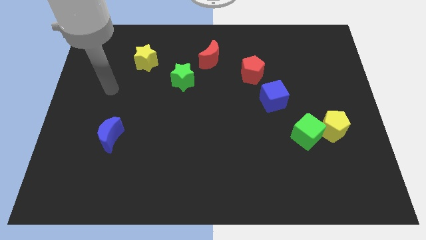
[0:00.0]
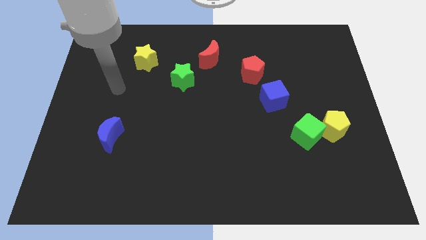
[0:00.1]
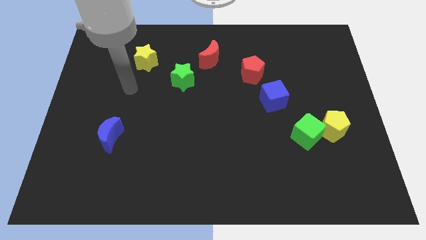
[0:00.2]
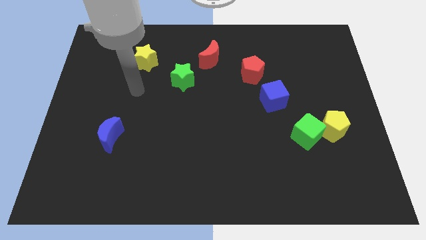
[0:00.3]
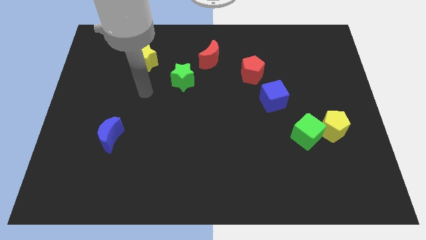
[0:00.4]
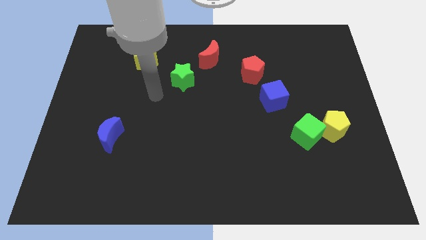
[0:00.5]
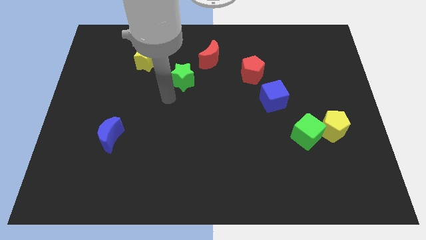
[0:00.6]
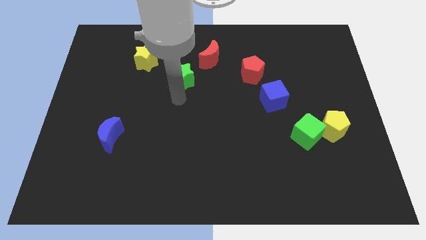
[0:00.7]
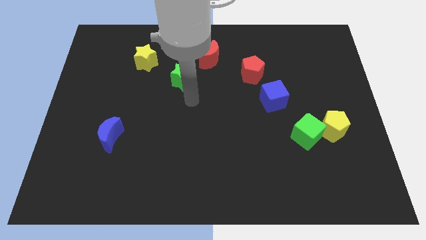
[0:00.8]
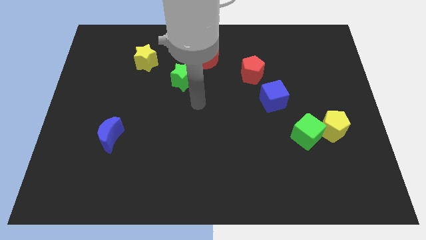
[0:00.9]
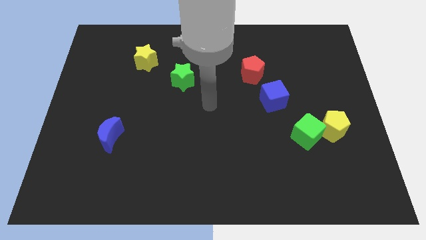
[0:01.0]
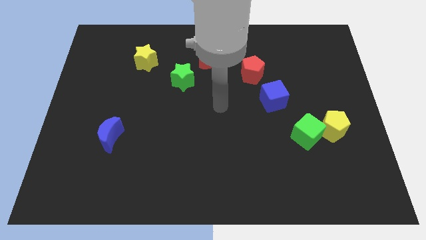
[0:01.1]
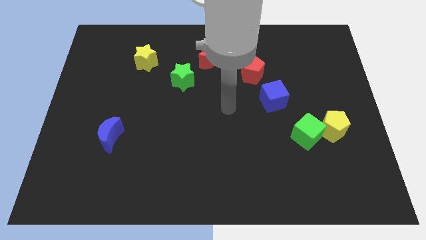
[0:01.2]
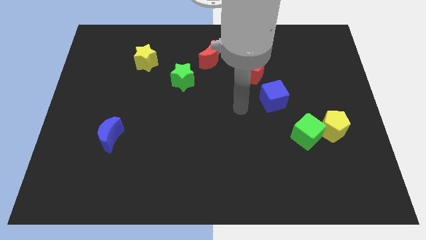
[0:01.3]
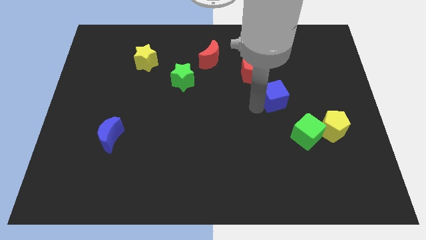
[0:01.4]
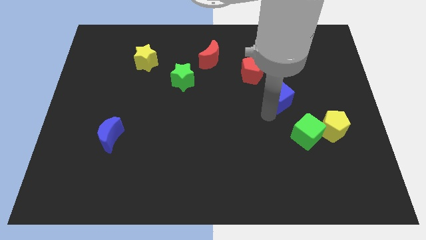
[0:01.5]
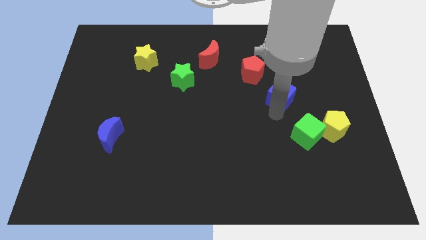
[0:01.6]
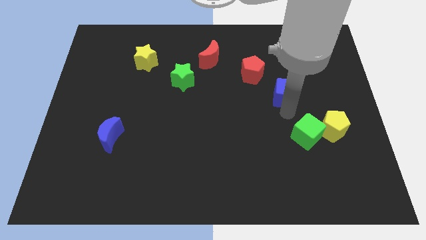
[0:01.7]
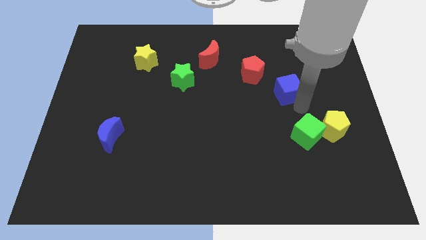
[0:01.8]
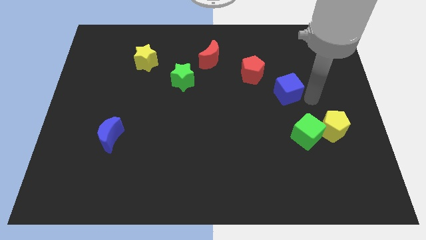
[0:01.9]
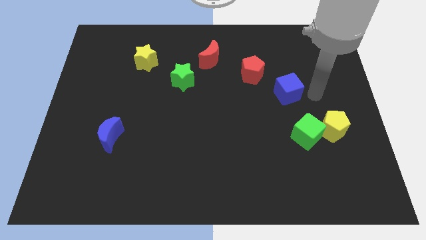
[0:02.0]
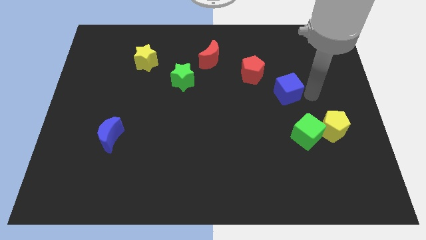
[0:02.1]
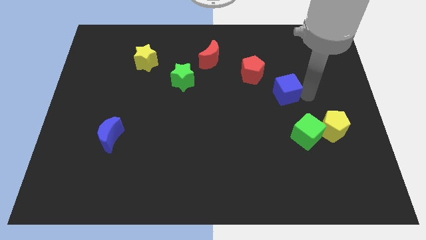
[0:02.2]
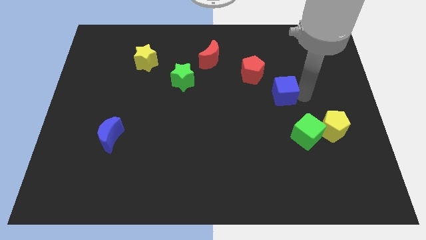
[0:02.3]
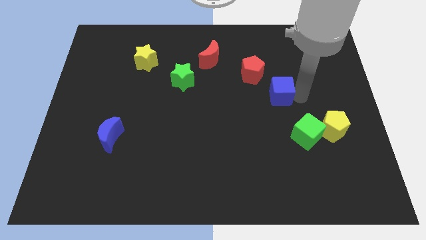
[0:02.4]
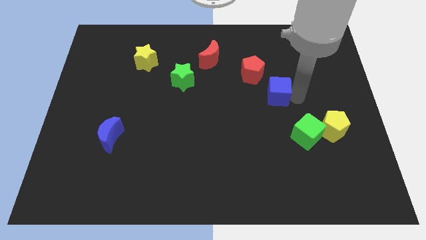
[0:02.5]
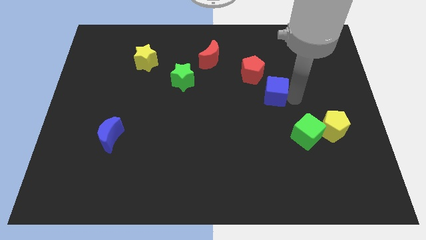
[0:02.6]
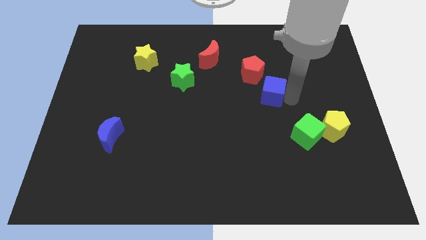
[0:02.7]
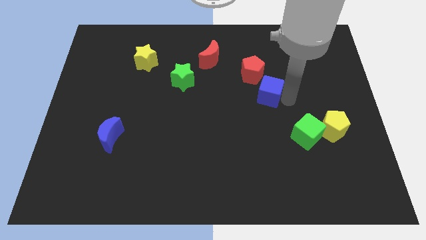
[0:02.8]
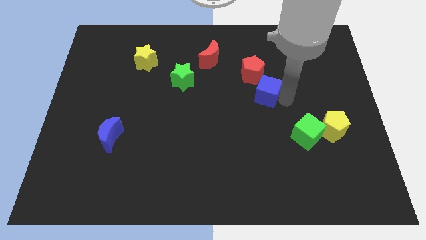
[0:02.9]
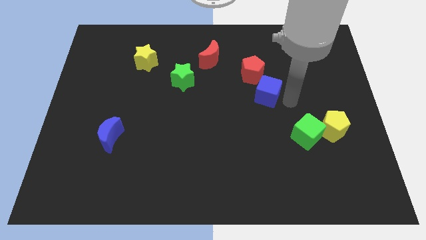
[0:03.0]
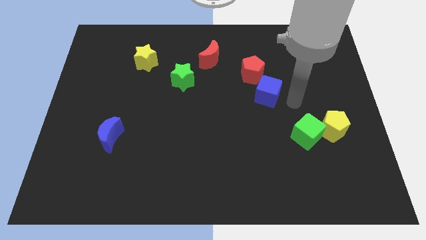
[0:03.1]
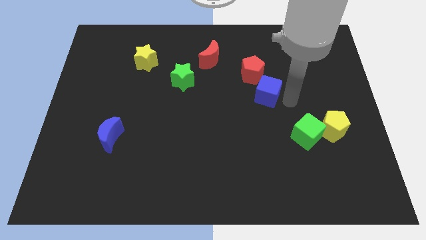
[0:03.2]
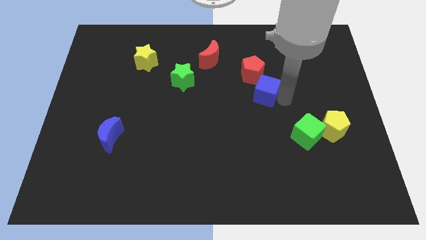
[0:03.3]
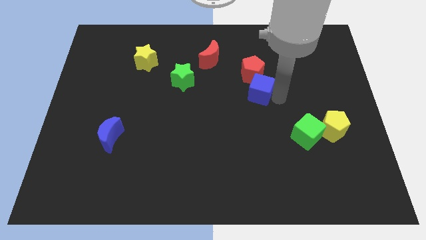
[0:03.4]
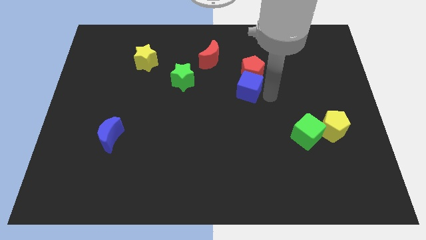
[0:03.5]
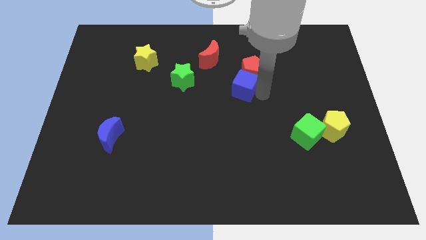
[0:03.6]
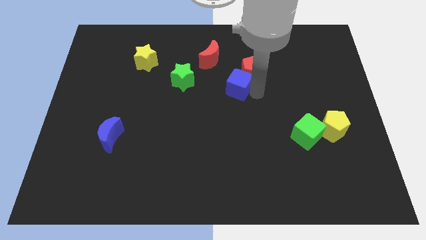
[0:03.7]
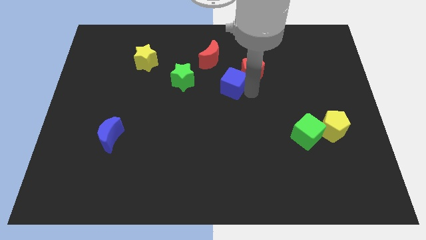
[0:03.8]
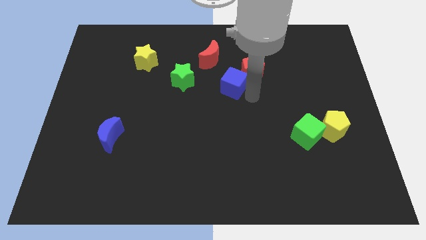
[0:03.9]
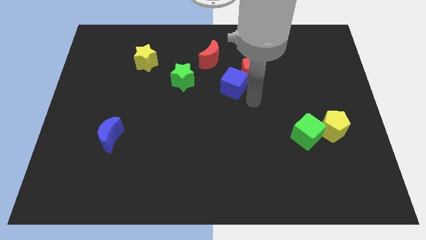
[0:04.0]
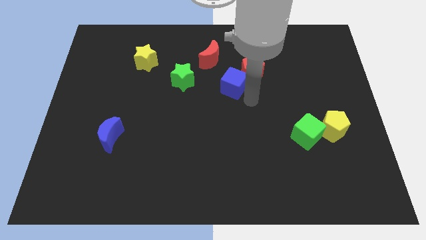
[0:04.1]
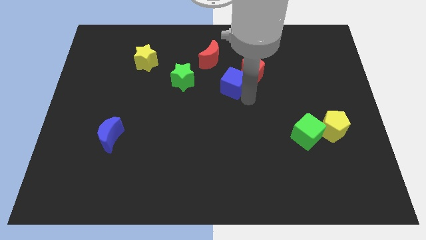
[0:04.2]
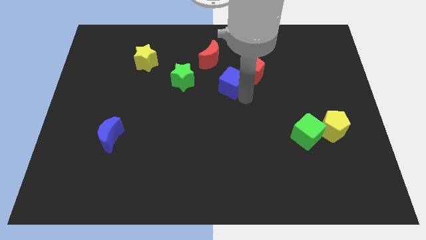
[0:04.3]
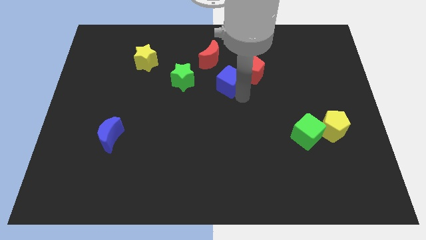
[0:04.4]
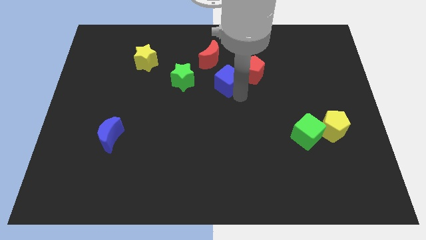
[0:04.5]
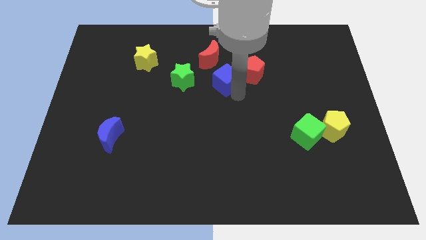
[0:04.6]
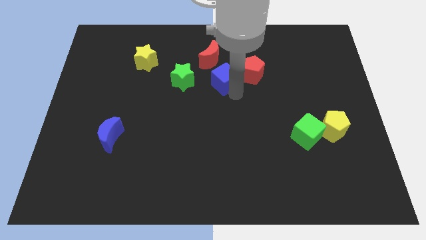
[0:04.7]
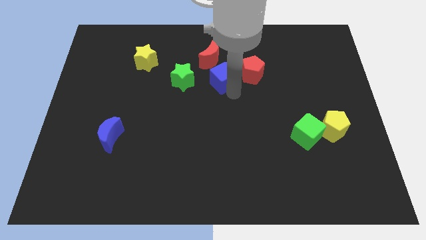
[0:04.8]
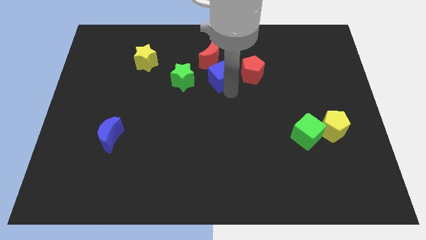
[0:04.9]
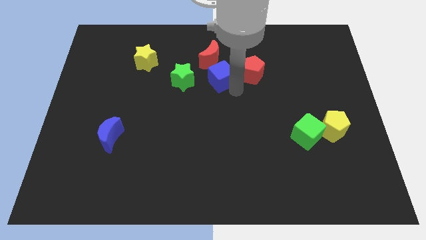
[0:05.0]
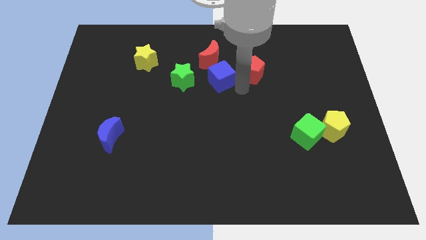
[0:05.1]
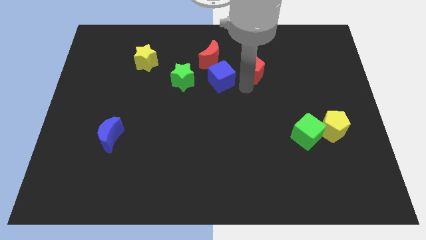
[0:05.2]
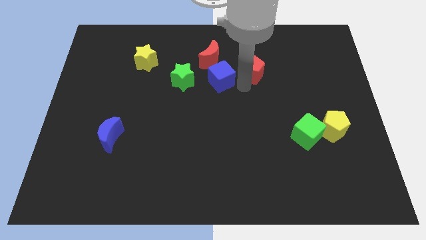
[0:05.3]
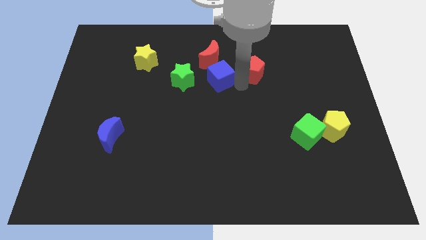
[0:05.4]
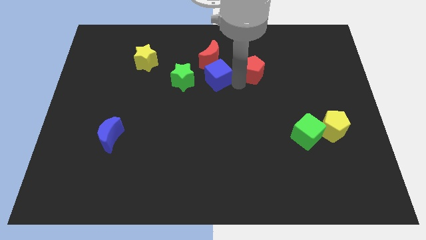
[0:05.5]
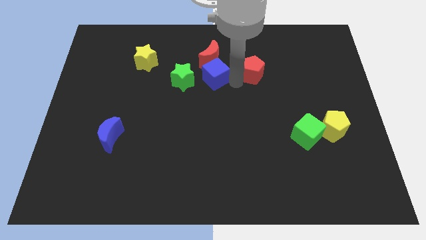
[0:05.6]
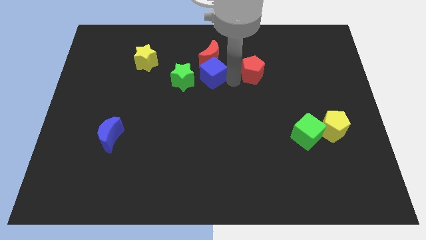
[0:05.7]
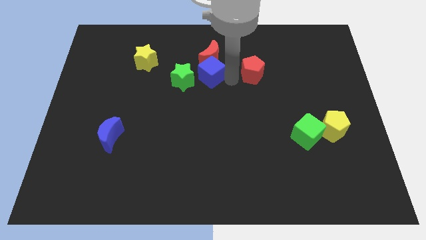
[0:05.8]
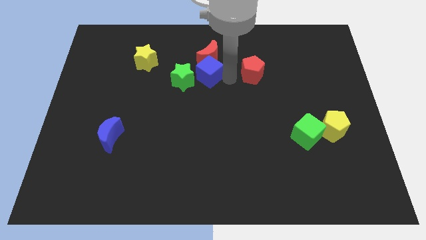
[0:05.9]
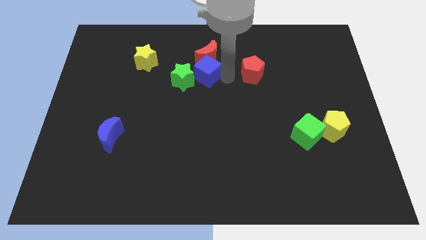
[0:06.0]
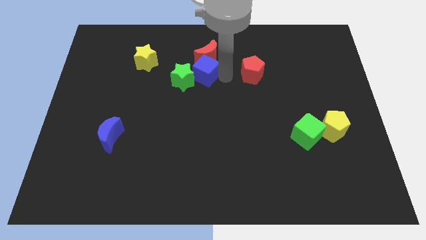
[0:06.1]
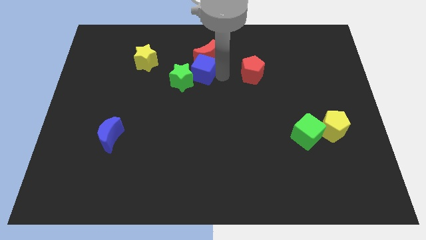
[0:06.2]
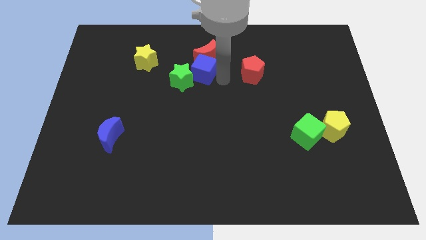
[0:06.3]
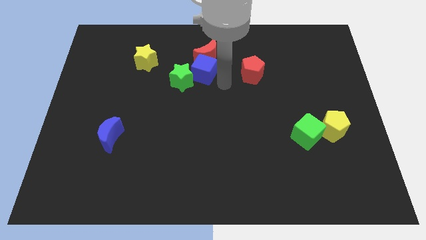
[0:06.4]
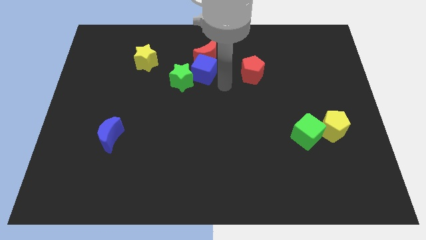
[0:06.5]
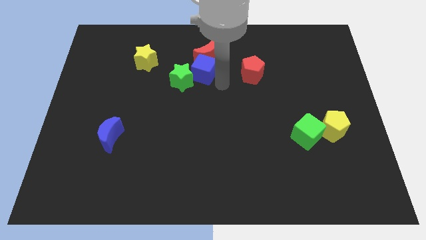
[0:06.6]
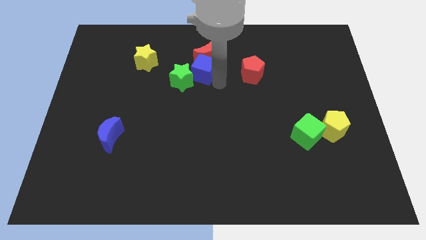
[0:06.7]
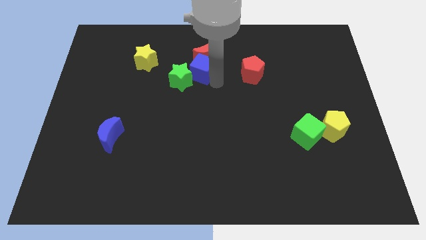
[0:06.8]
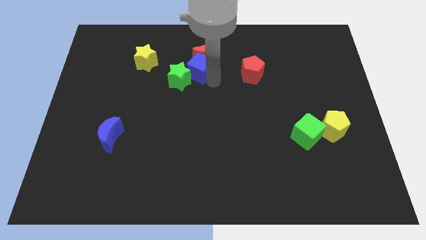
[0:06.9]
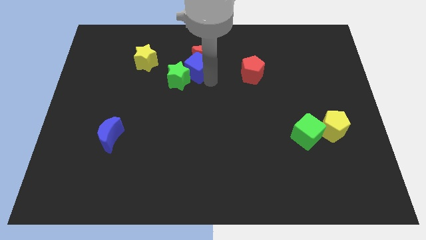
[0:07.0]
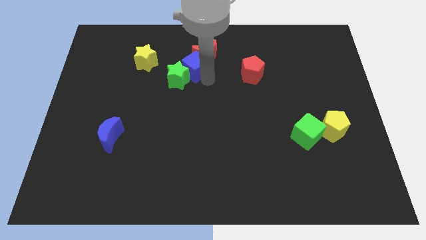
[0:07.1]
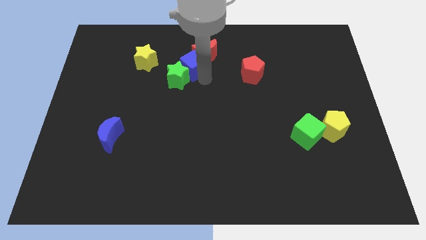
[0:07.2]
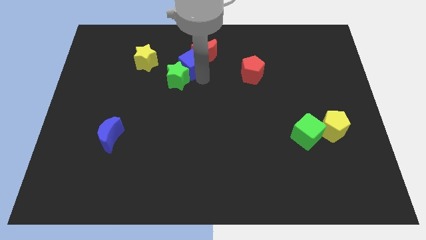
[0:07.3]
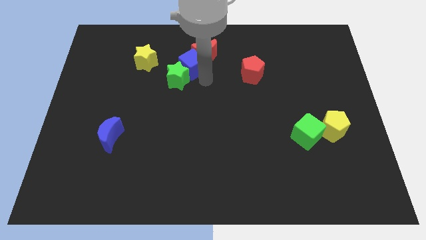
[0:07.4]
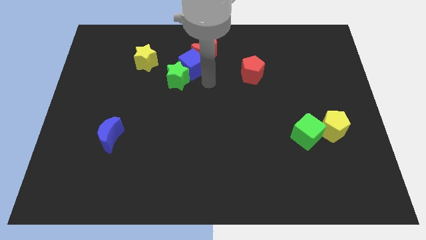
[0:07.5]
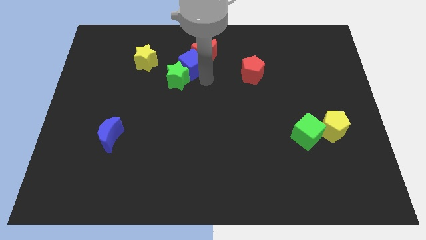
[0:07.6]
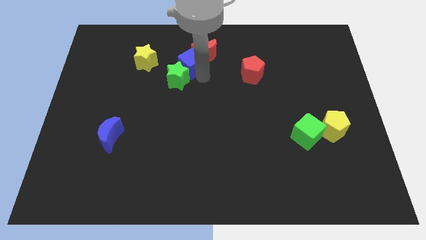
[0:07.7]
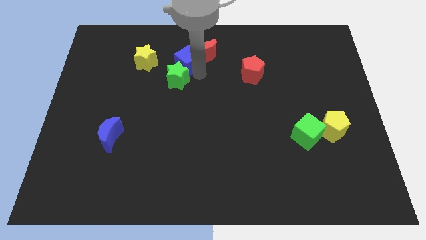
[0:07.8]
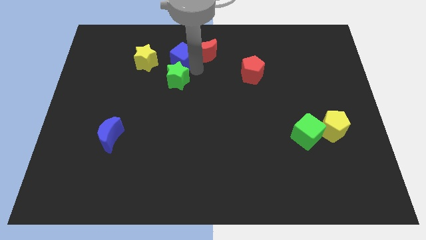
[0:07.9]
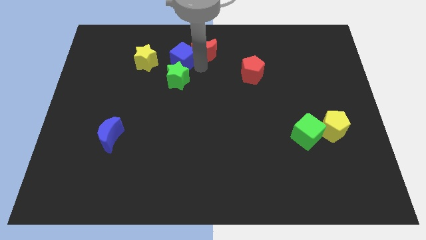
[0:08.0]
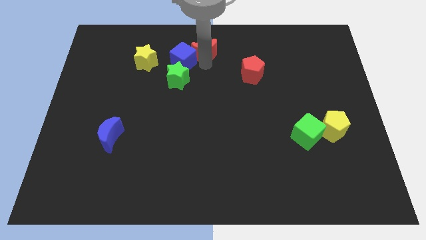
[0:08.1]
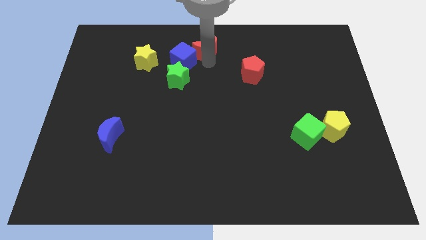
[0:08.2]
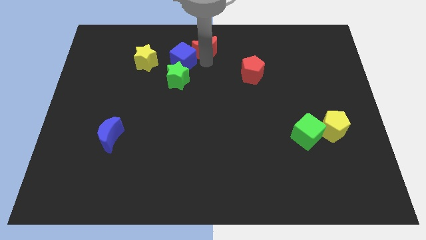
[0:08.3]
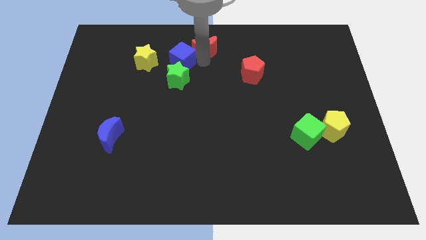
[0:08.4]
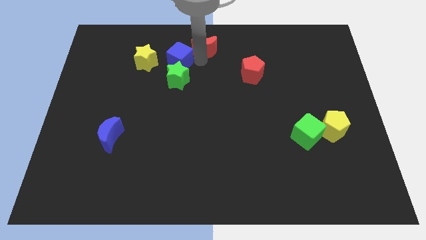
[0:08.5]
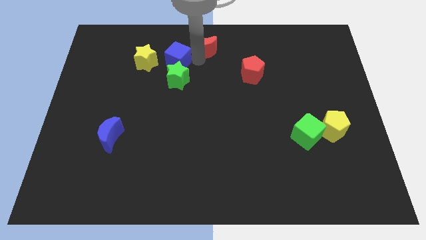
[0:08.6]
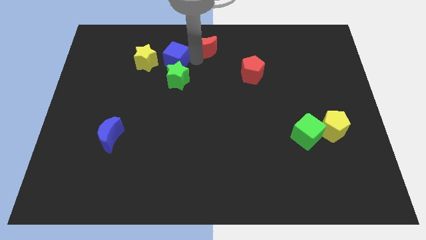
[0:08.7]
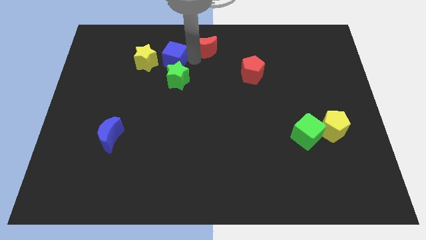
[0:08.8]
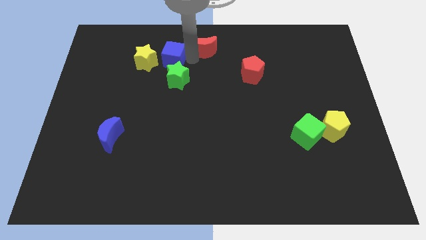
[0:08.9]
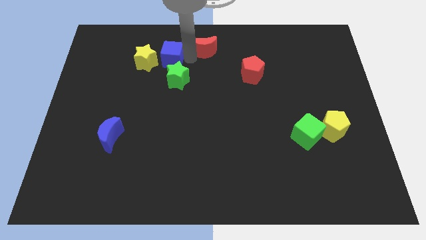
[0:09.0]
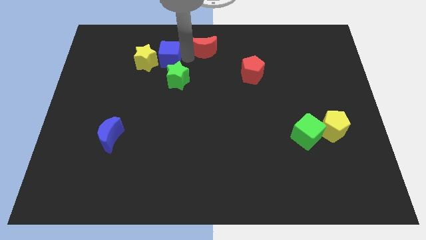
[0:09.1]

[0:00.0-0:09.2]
slide the blue cube next to the yellow star
